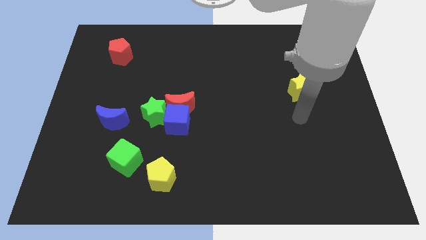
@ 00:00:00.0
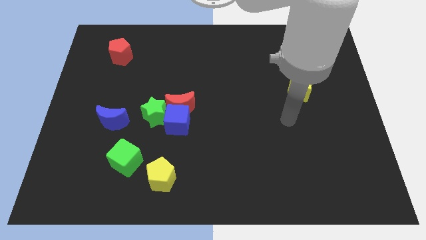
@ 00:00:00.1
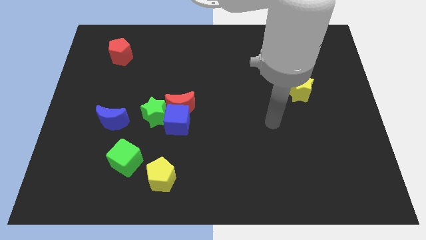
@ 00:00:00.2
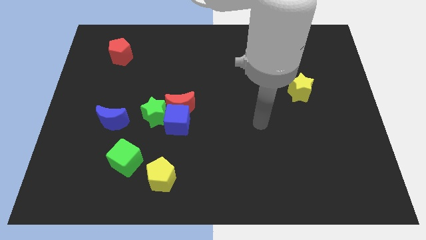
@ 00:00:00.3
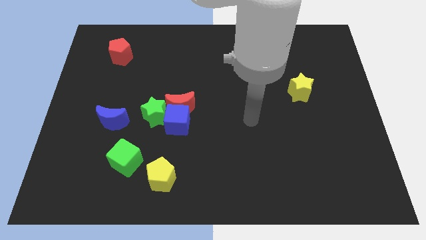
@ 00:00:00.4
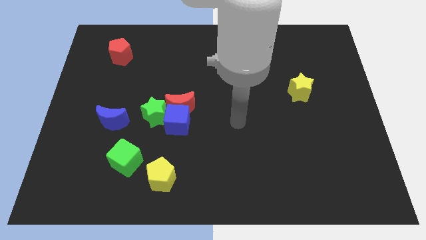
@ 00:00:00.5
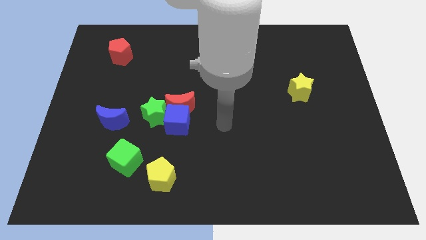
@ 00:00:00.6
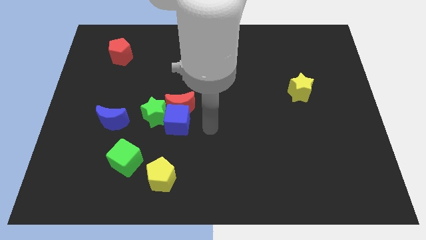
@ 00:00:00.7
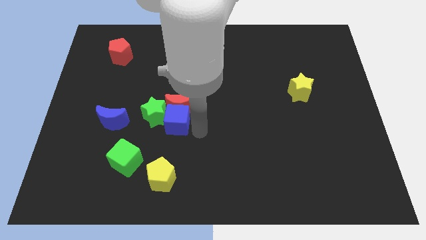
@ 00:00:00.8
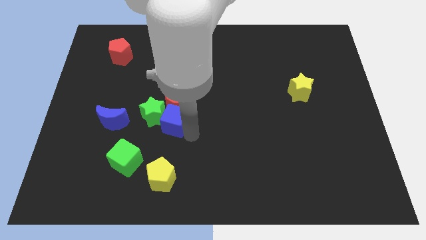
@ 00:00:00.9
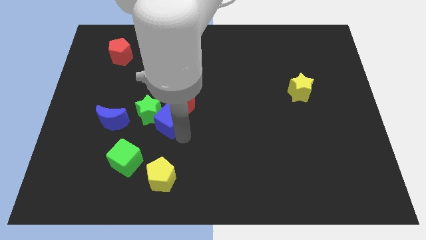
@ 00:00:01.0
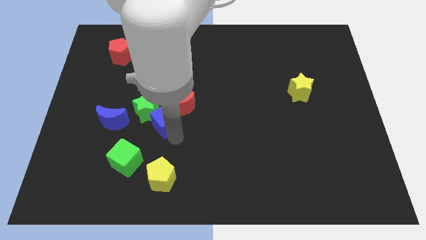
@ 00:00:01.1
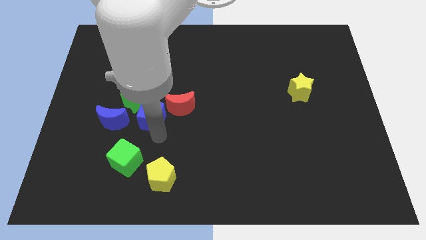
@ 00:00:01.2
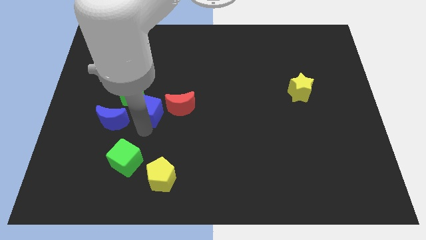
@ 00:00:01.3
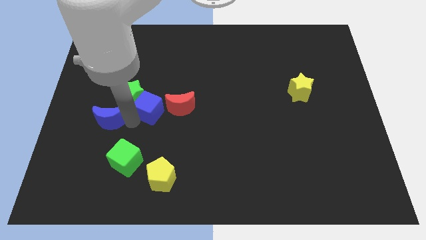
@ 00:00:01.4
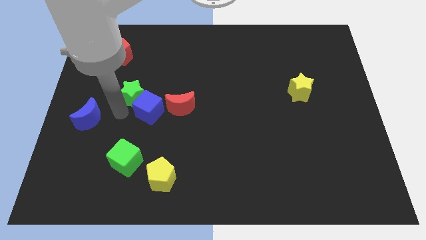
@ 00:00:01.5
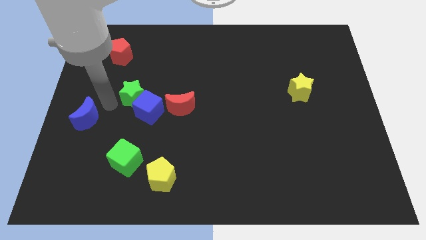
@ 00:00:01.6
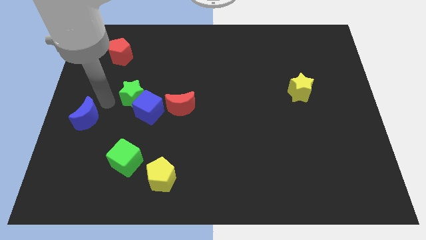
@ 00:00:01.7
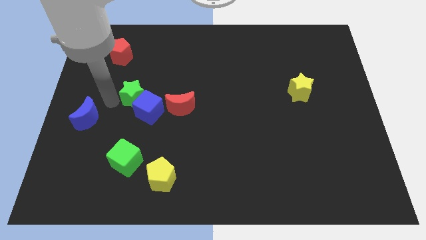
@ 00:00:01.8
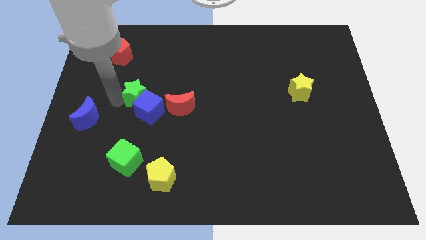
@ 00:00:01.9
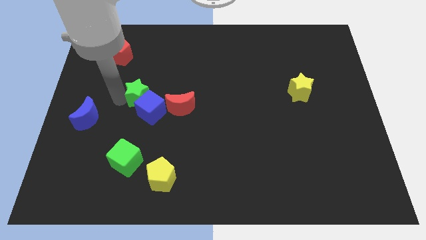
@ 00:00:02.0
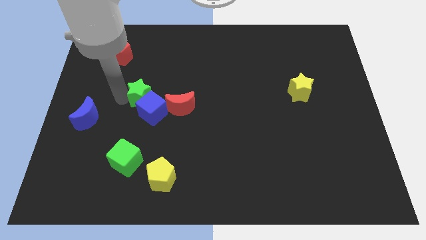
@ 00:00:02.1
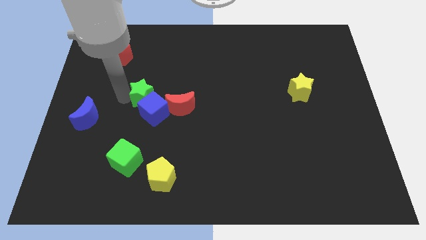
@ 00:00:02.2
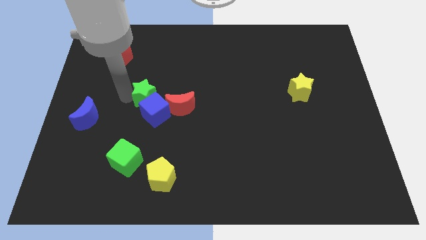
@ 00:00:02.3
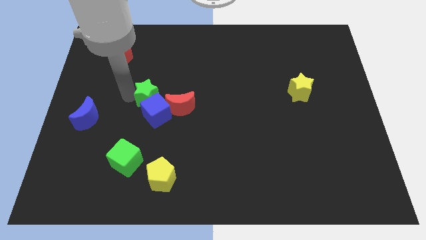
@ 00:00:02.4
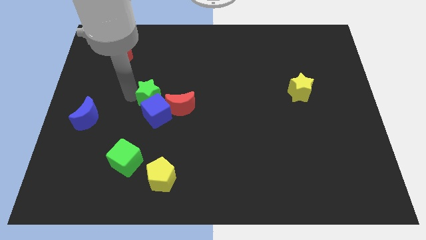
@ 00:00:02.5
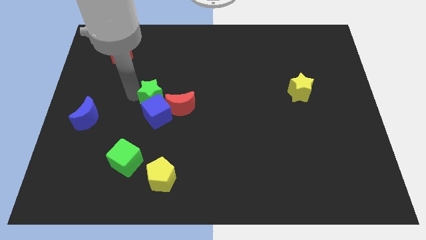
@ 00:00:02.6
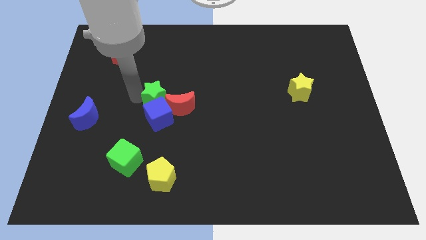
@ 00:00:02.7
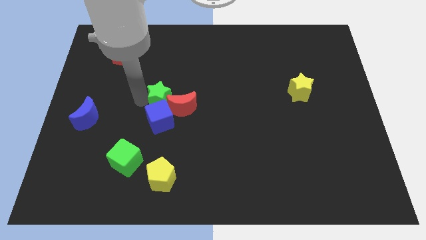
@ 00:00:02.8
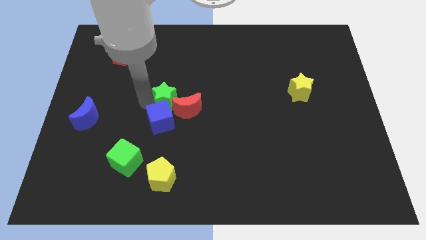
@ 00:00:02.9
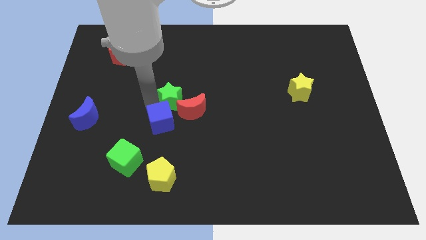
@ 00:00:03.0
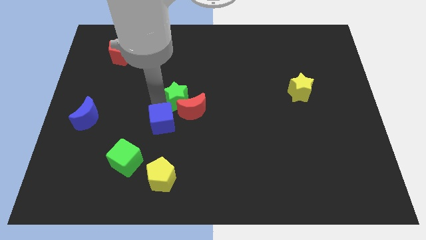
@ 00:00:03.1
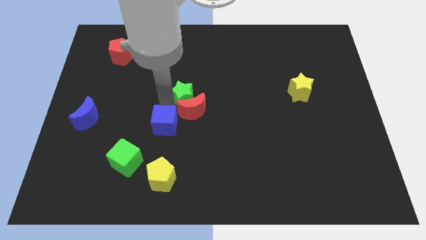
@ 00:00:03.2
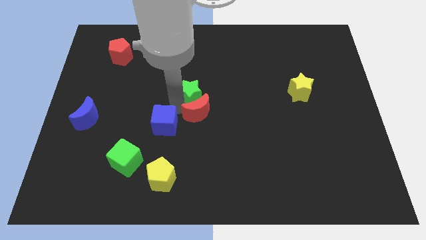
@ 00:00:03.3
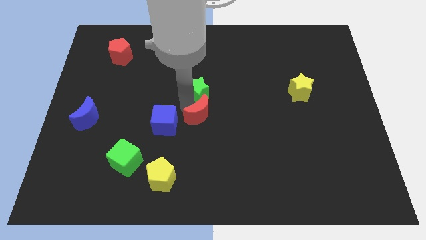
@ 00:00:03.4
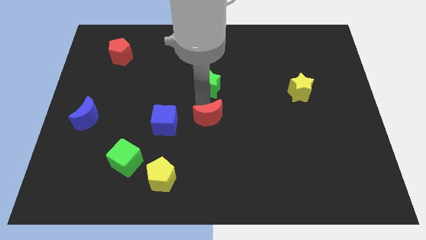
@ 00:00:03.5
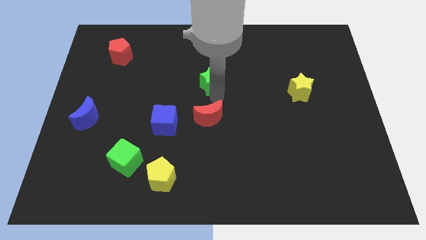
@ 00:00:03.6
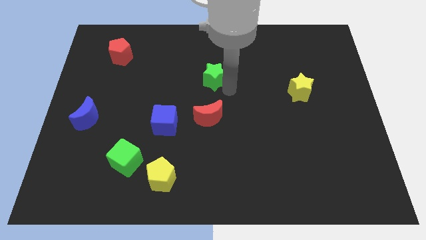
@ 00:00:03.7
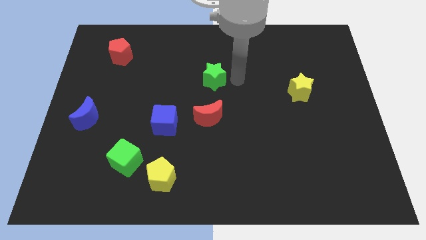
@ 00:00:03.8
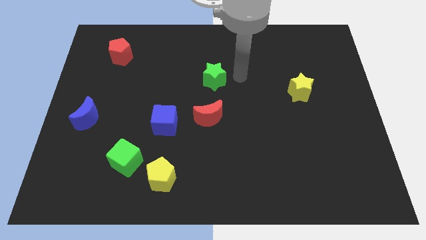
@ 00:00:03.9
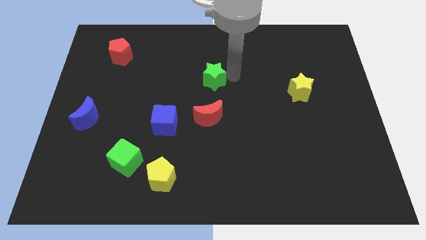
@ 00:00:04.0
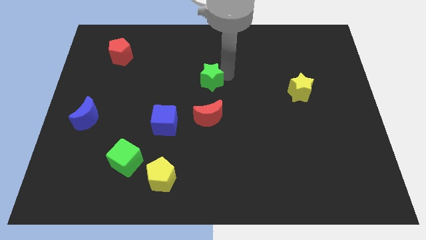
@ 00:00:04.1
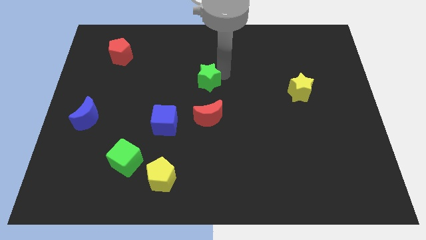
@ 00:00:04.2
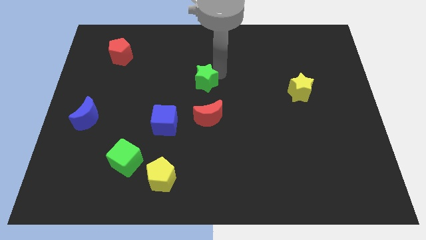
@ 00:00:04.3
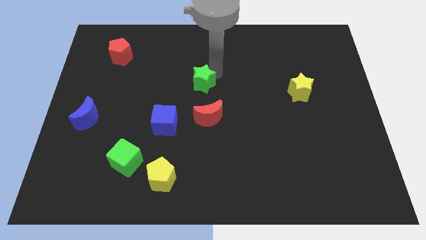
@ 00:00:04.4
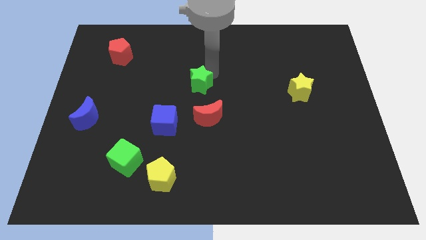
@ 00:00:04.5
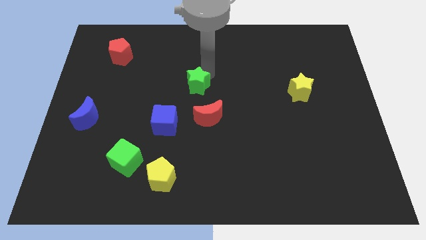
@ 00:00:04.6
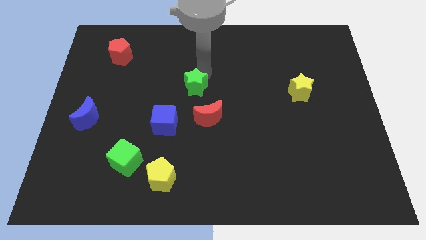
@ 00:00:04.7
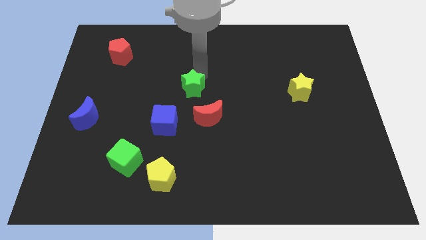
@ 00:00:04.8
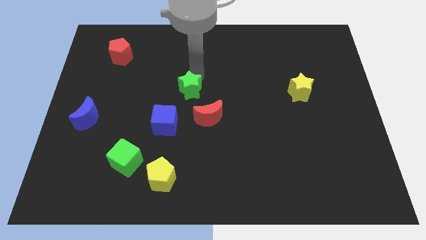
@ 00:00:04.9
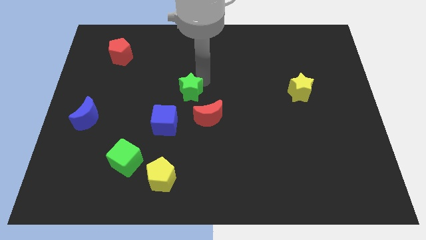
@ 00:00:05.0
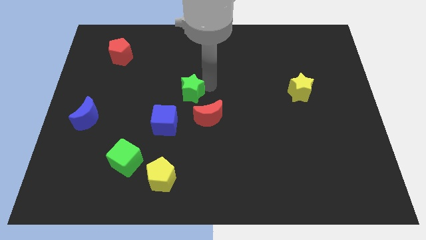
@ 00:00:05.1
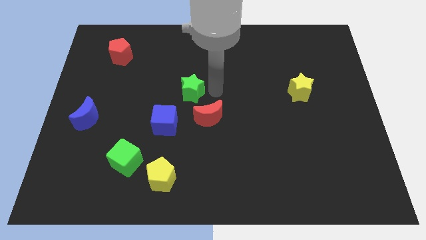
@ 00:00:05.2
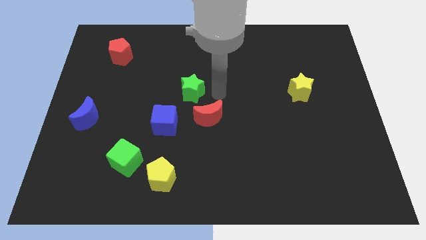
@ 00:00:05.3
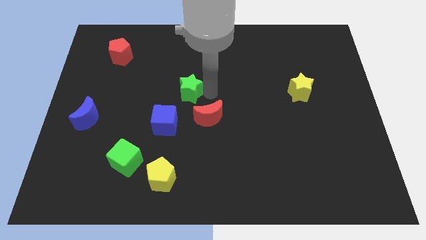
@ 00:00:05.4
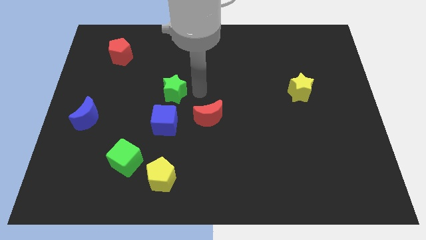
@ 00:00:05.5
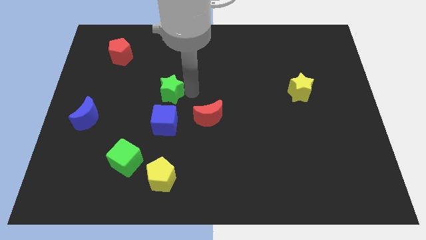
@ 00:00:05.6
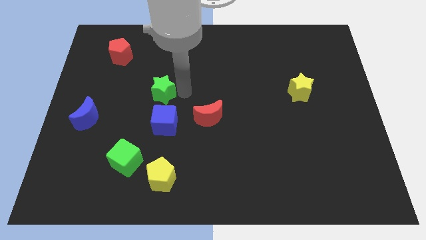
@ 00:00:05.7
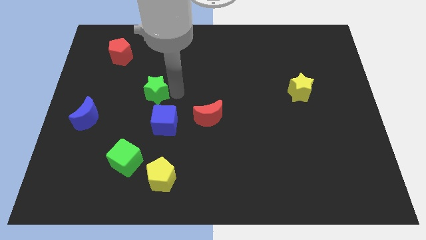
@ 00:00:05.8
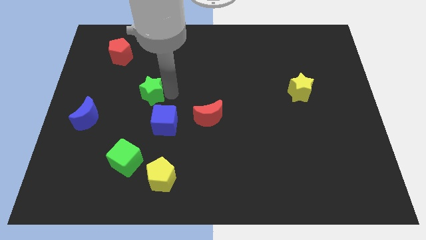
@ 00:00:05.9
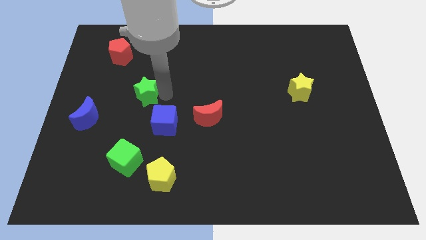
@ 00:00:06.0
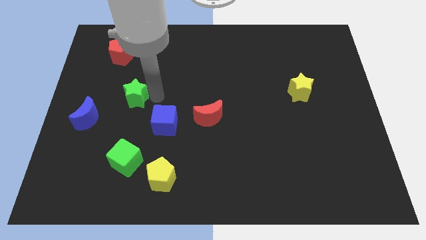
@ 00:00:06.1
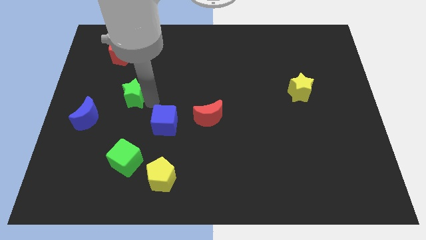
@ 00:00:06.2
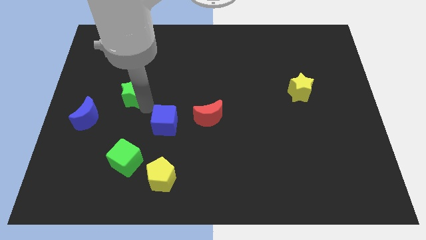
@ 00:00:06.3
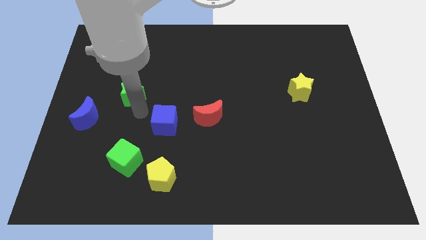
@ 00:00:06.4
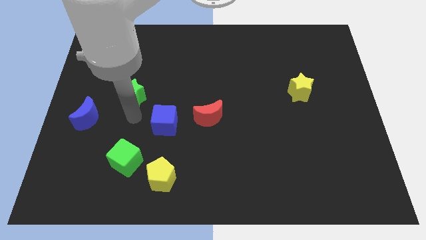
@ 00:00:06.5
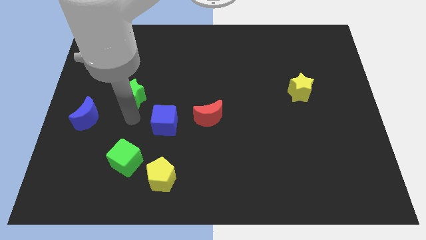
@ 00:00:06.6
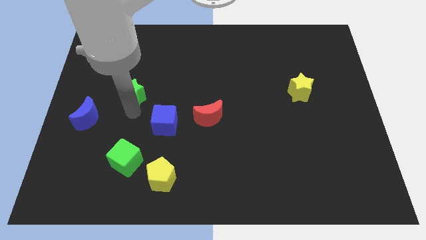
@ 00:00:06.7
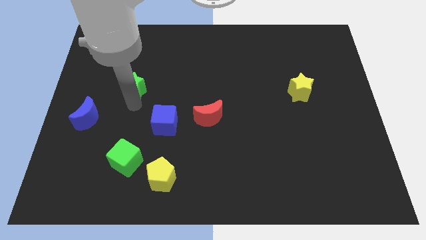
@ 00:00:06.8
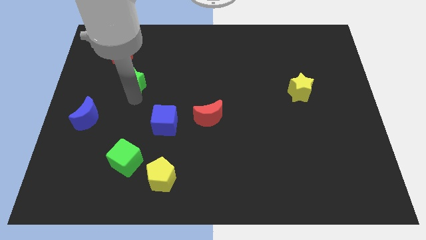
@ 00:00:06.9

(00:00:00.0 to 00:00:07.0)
slide the green star to the bottom right of the red pentagon

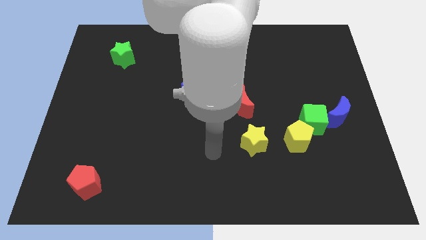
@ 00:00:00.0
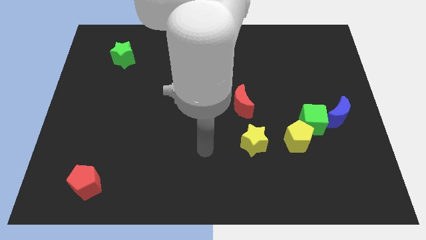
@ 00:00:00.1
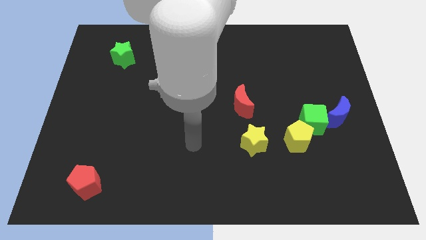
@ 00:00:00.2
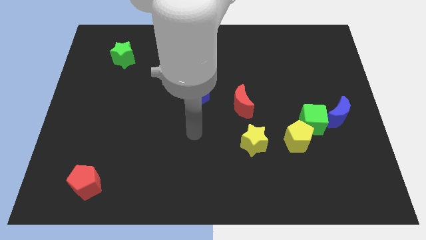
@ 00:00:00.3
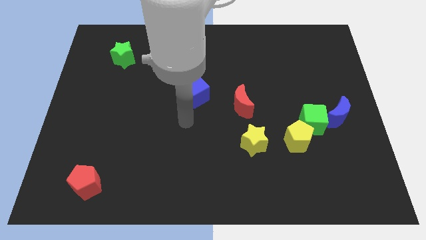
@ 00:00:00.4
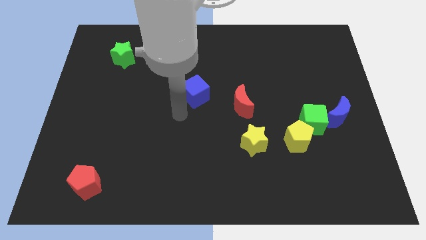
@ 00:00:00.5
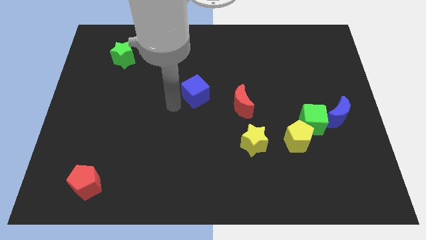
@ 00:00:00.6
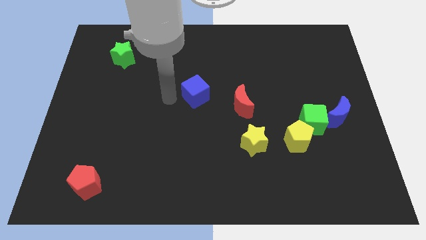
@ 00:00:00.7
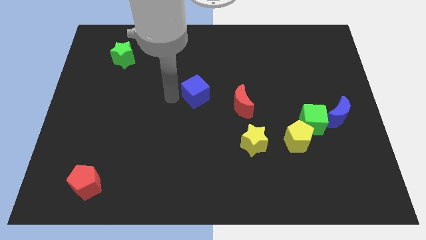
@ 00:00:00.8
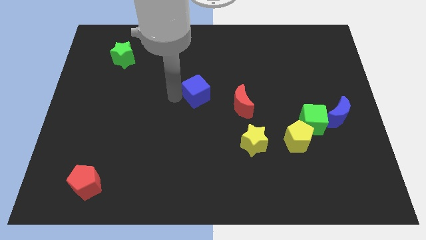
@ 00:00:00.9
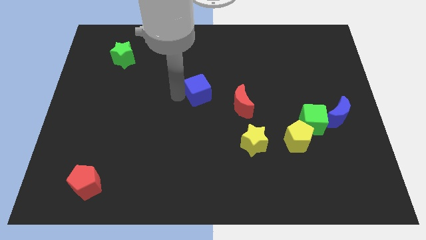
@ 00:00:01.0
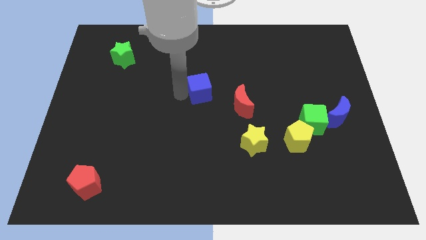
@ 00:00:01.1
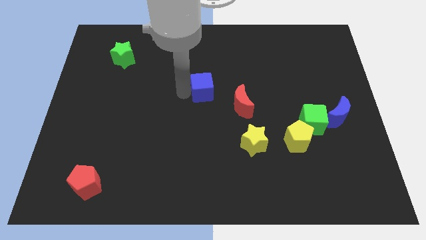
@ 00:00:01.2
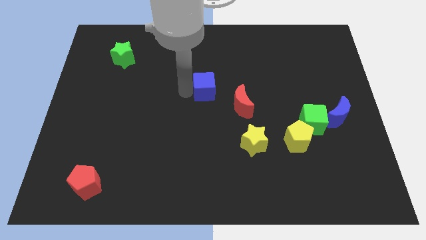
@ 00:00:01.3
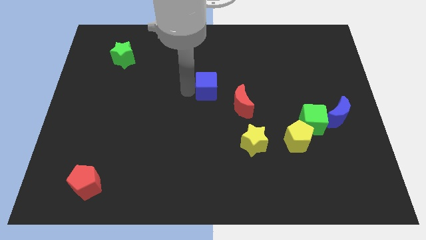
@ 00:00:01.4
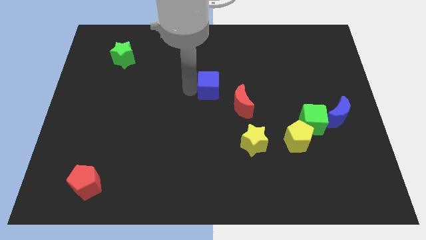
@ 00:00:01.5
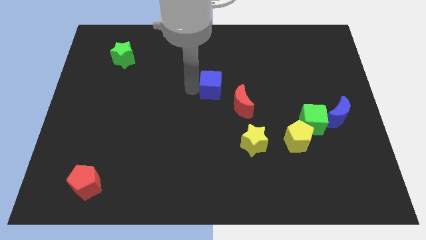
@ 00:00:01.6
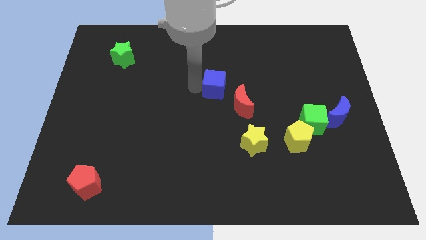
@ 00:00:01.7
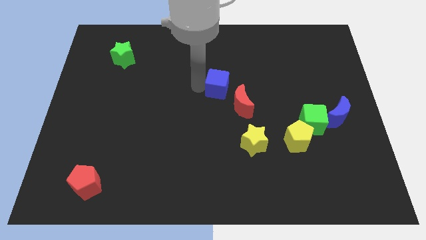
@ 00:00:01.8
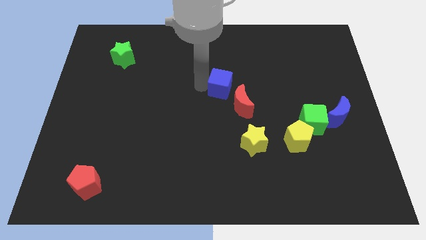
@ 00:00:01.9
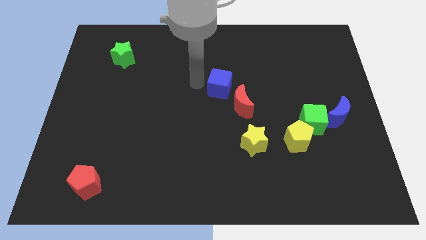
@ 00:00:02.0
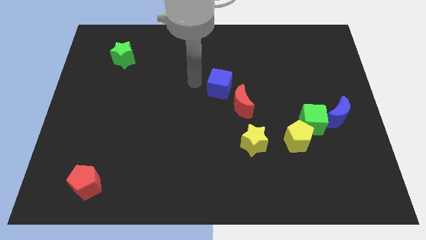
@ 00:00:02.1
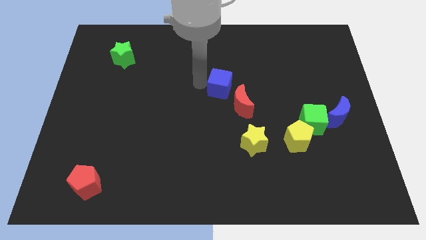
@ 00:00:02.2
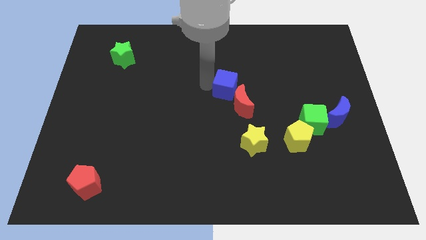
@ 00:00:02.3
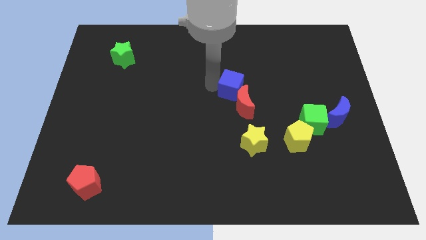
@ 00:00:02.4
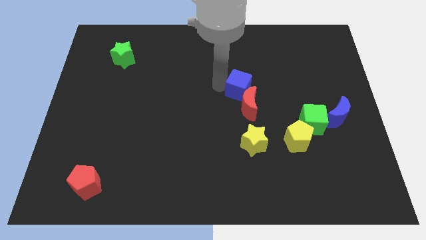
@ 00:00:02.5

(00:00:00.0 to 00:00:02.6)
put the blue cube to the top of the yellow star
